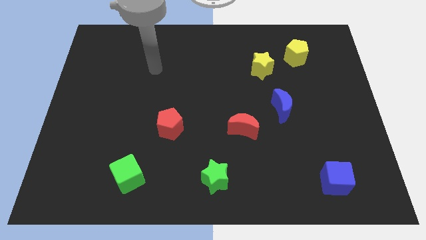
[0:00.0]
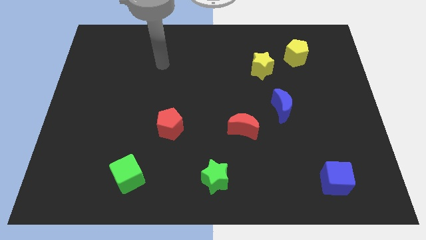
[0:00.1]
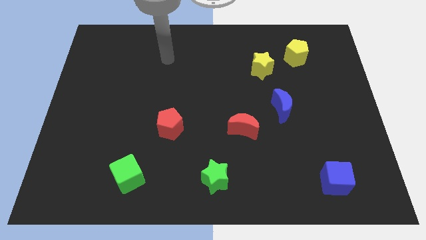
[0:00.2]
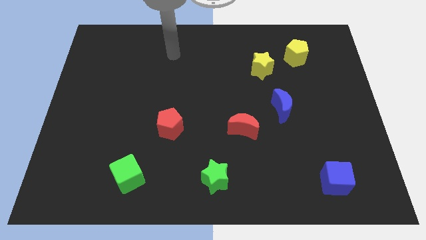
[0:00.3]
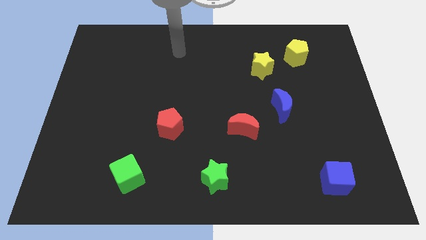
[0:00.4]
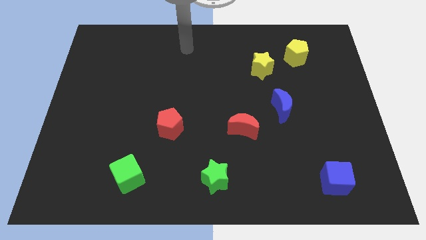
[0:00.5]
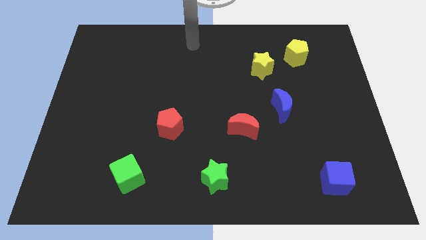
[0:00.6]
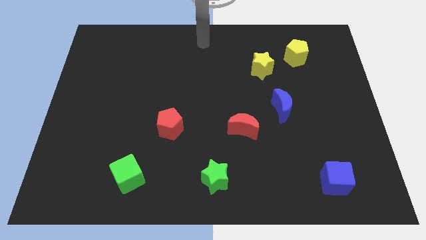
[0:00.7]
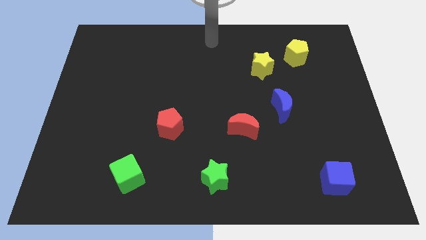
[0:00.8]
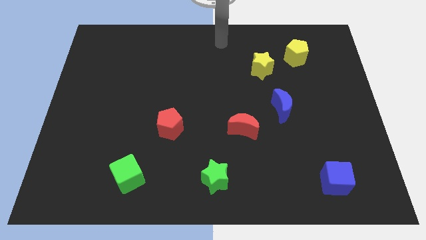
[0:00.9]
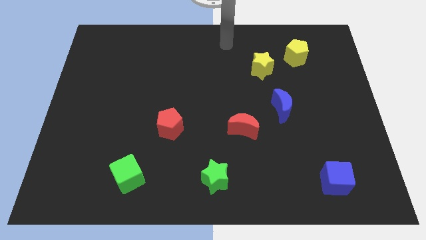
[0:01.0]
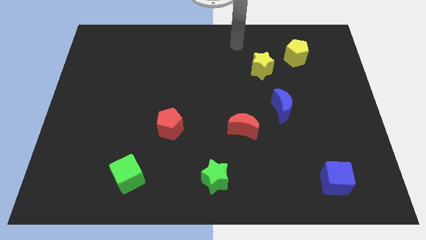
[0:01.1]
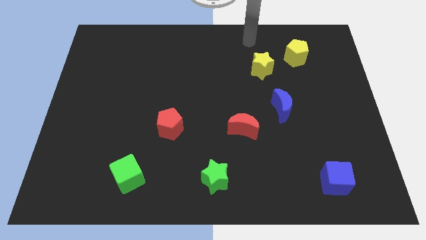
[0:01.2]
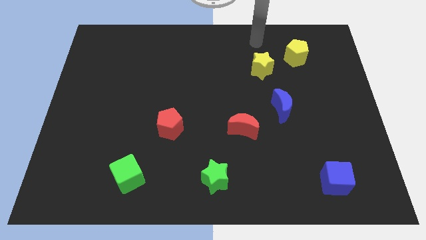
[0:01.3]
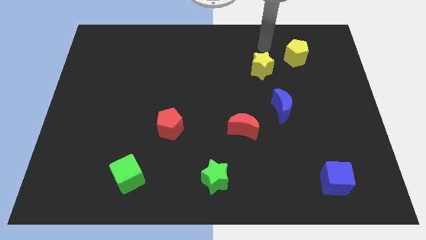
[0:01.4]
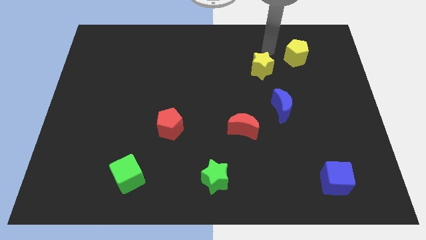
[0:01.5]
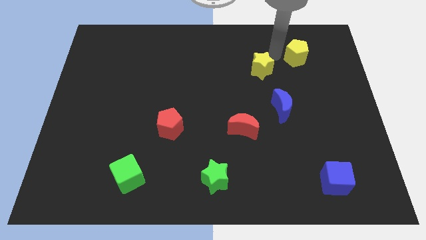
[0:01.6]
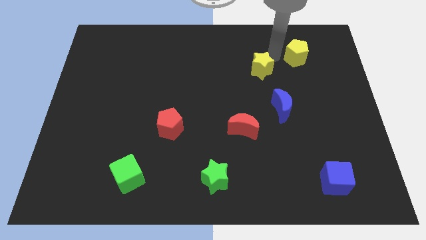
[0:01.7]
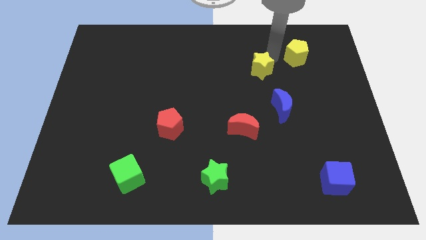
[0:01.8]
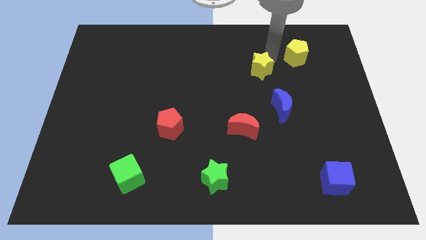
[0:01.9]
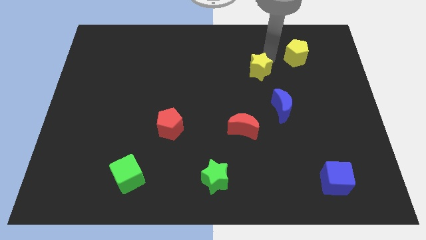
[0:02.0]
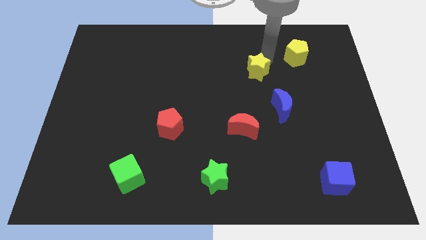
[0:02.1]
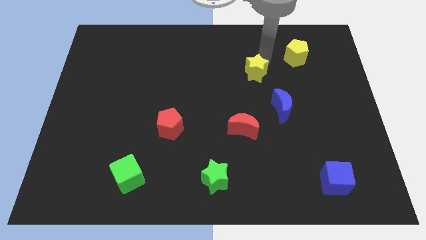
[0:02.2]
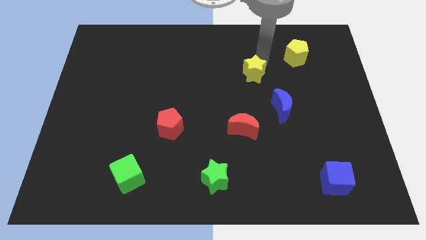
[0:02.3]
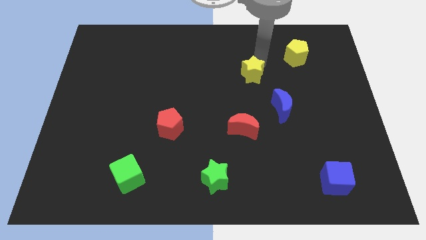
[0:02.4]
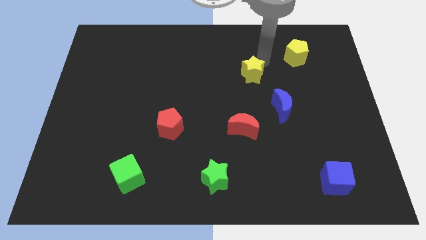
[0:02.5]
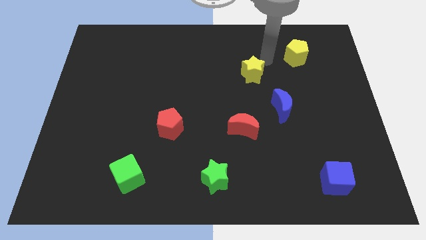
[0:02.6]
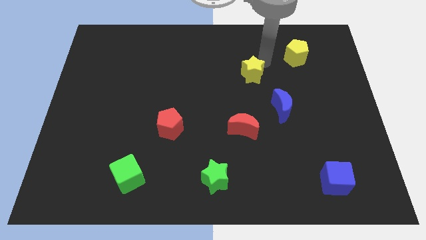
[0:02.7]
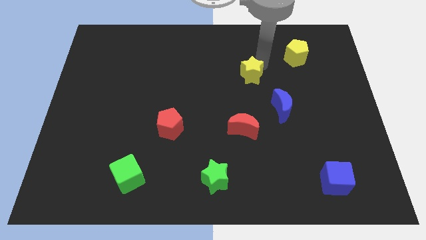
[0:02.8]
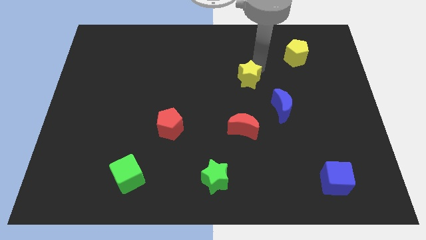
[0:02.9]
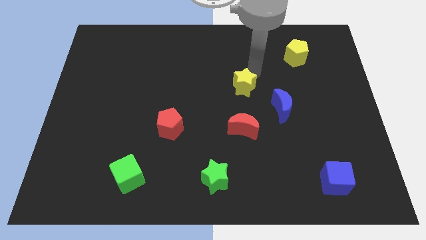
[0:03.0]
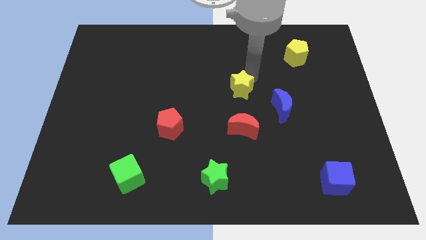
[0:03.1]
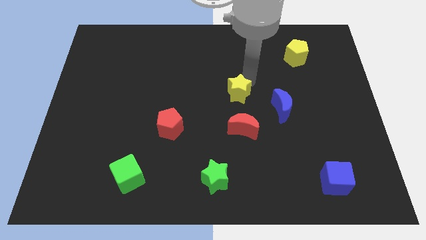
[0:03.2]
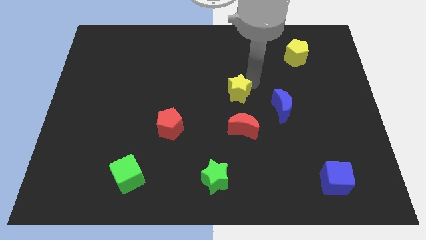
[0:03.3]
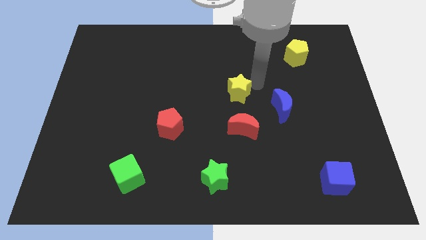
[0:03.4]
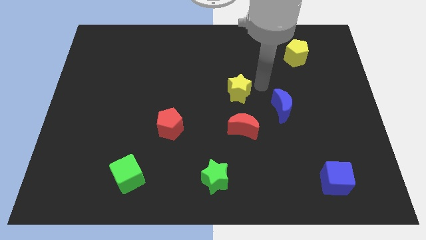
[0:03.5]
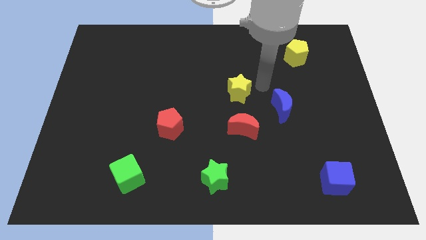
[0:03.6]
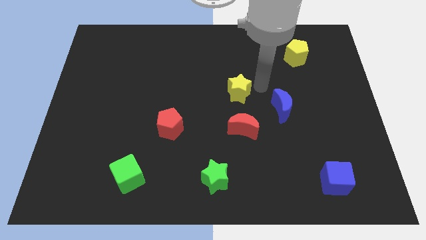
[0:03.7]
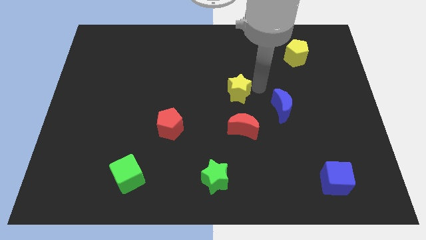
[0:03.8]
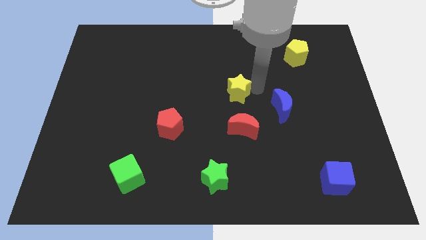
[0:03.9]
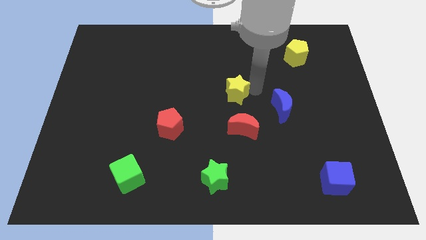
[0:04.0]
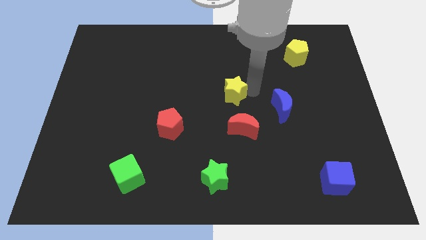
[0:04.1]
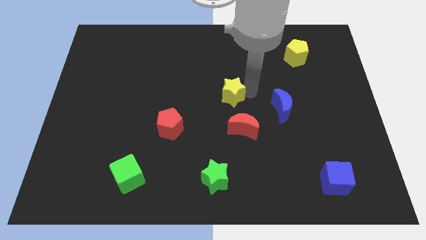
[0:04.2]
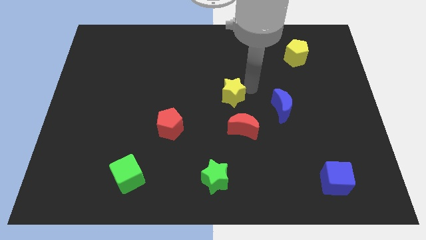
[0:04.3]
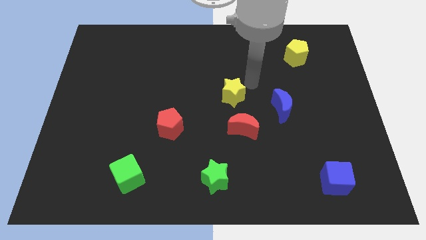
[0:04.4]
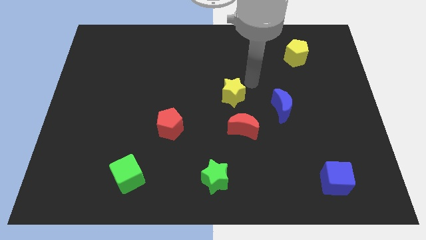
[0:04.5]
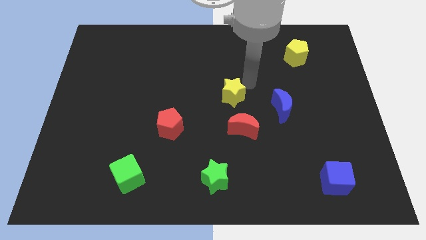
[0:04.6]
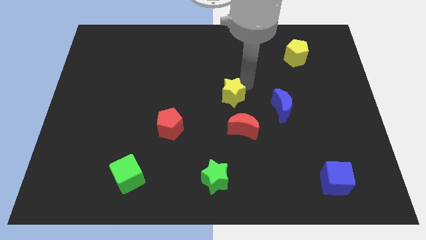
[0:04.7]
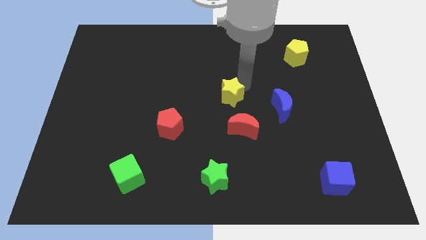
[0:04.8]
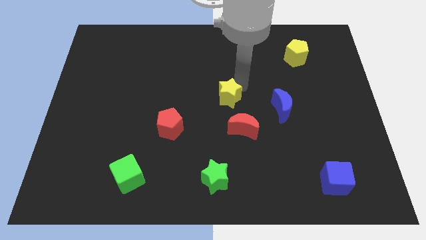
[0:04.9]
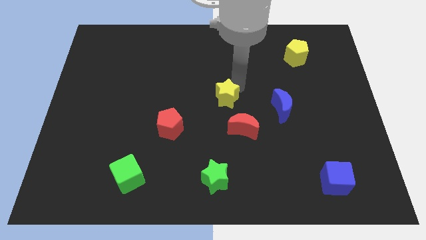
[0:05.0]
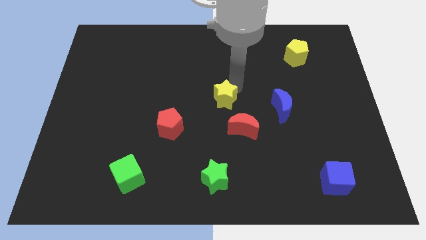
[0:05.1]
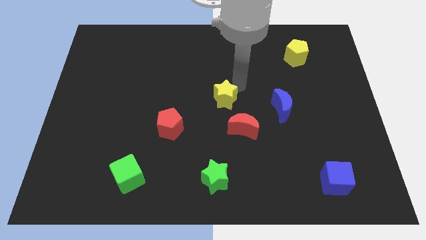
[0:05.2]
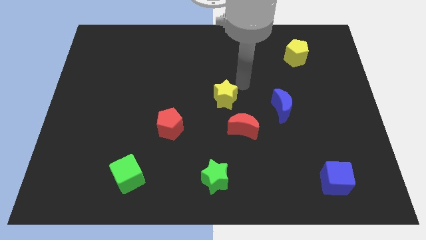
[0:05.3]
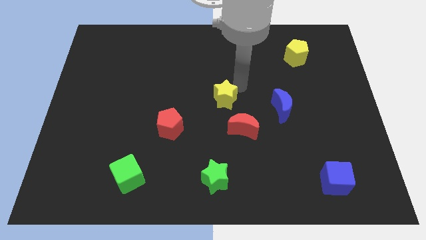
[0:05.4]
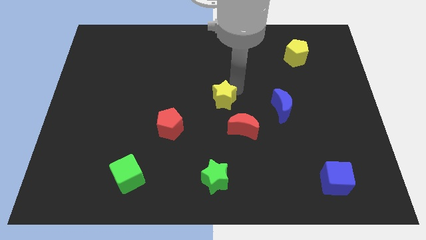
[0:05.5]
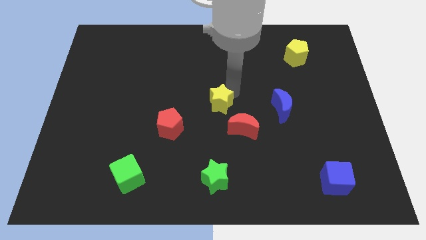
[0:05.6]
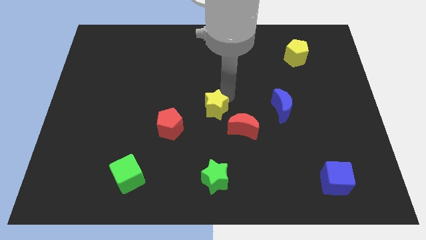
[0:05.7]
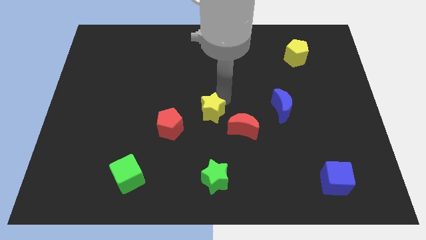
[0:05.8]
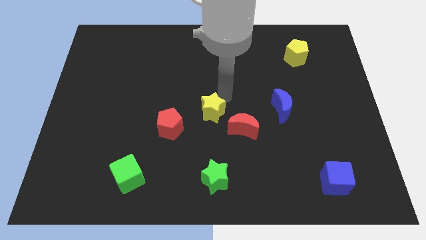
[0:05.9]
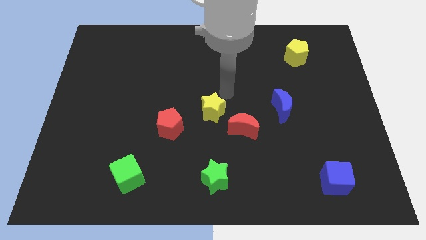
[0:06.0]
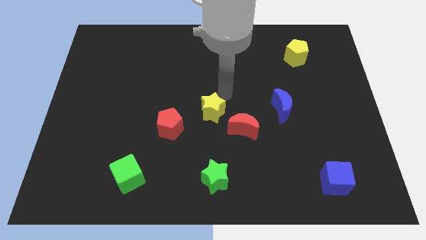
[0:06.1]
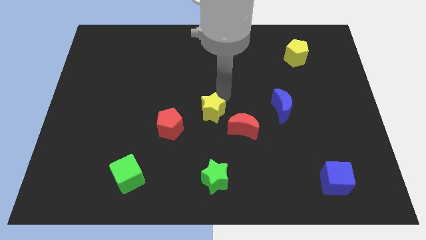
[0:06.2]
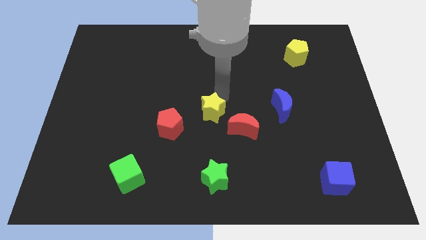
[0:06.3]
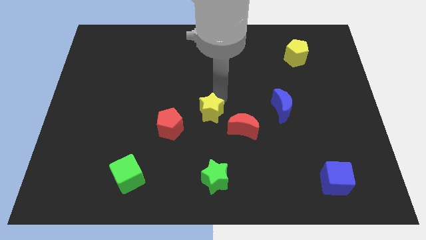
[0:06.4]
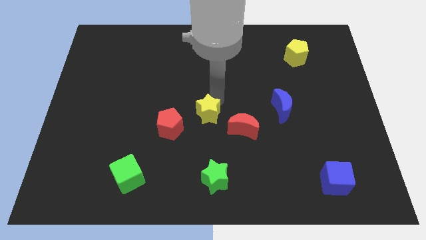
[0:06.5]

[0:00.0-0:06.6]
push the yellow star diagonally downwards and to the left

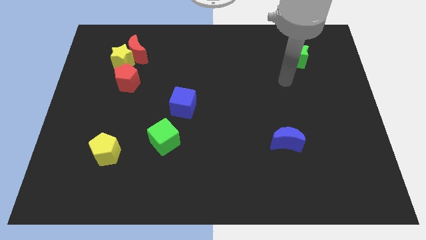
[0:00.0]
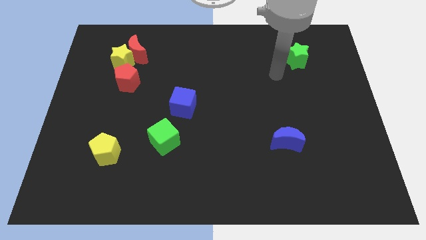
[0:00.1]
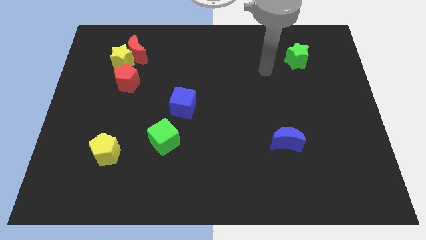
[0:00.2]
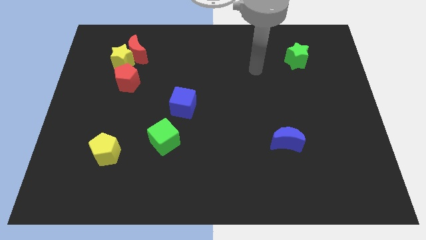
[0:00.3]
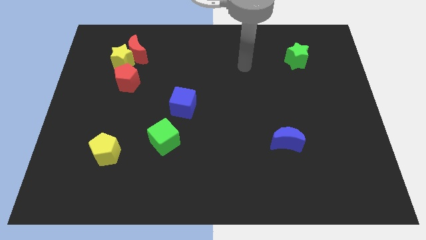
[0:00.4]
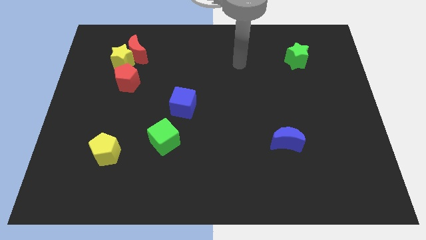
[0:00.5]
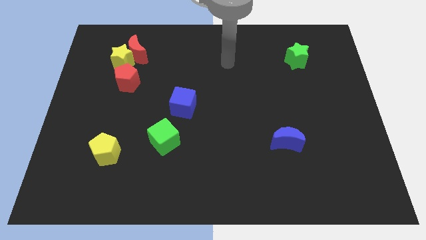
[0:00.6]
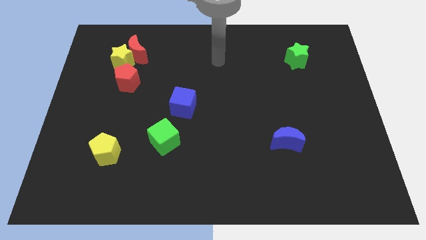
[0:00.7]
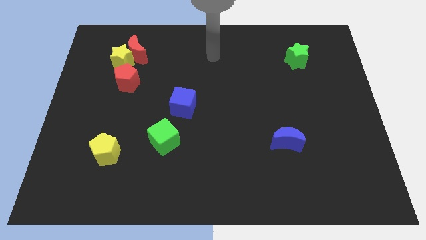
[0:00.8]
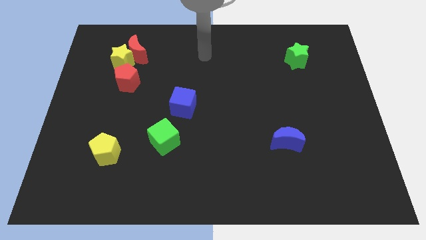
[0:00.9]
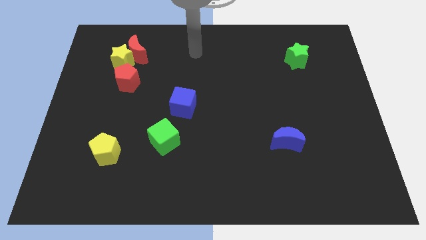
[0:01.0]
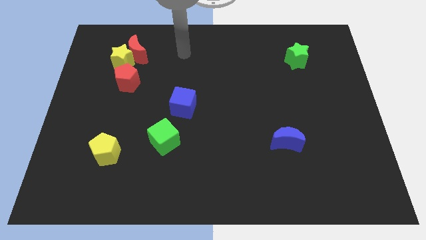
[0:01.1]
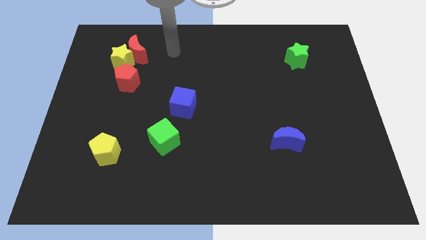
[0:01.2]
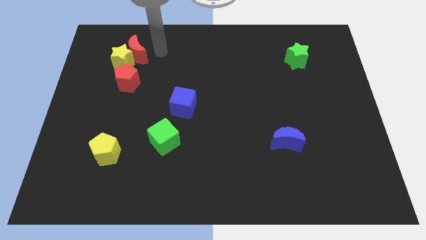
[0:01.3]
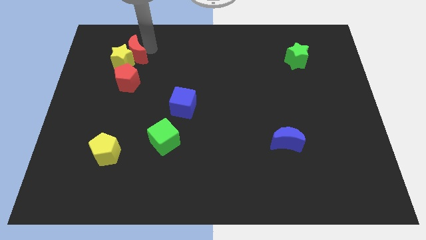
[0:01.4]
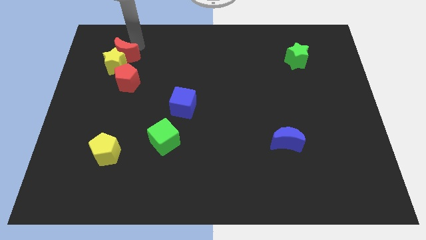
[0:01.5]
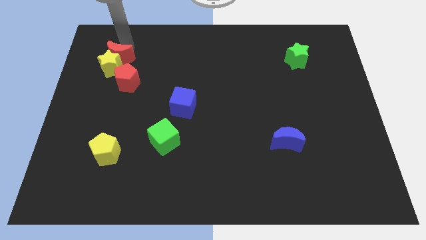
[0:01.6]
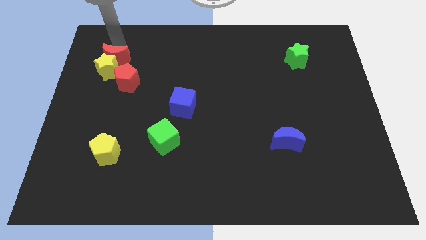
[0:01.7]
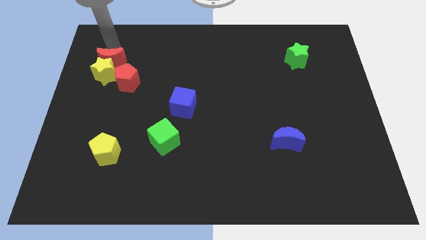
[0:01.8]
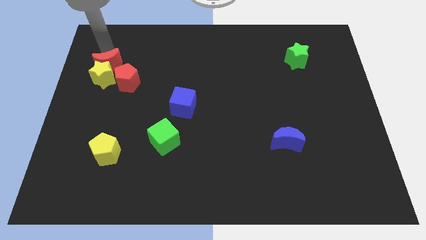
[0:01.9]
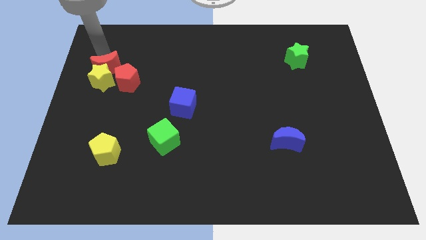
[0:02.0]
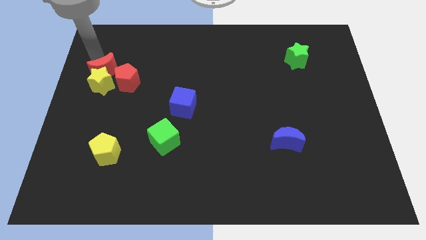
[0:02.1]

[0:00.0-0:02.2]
slightly push the yellow star downwards
